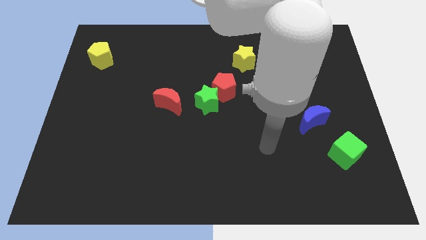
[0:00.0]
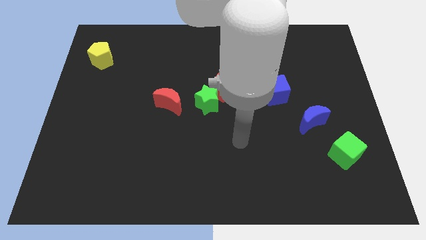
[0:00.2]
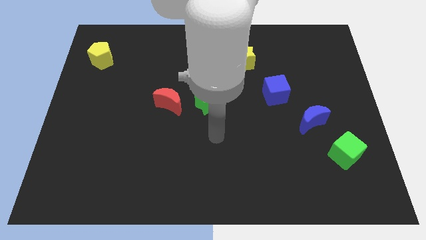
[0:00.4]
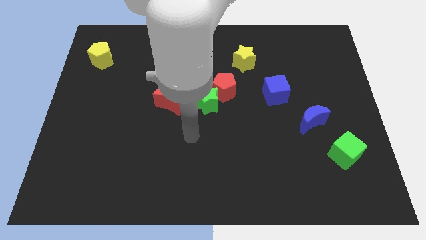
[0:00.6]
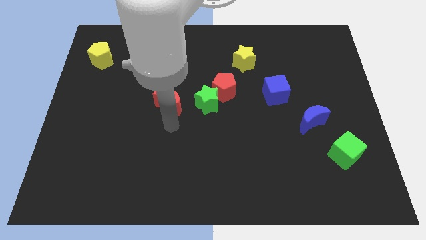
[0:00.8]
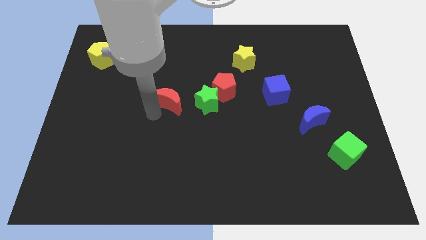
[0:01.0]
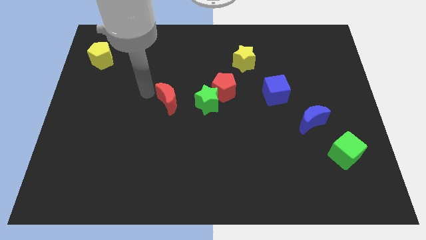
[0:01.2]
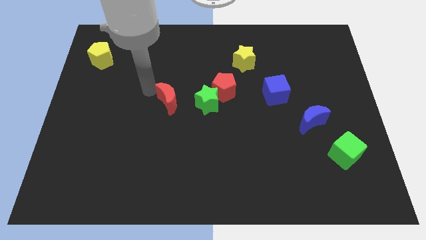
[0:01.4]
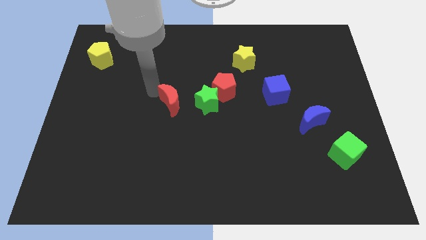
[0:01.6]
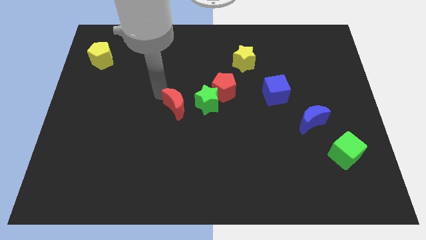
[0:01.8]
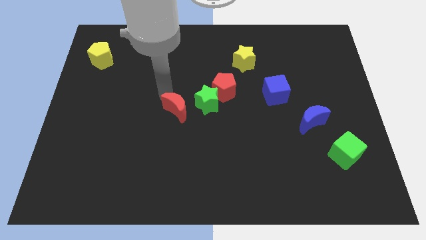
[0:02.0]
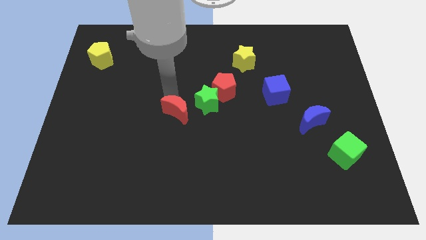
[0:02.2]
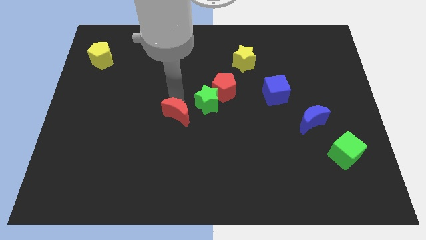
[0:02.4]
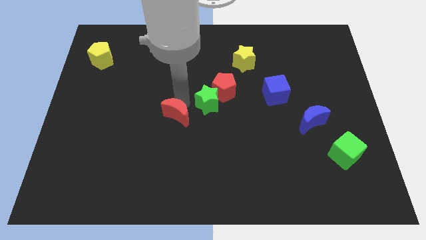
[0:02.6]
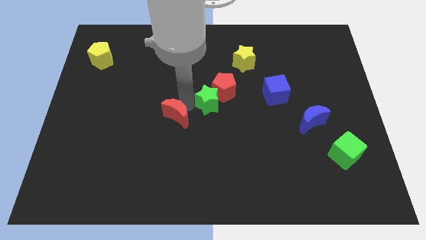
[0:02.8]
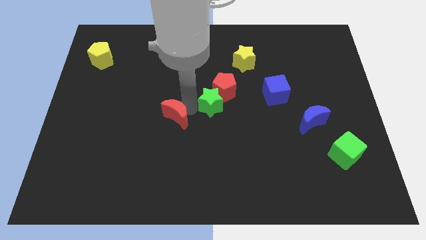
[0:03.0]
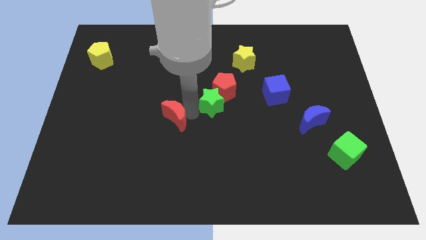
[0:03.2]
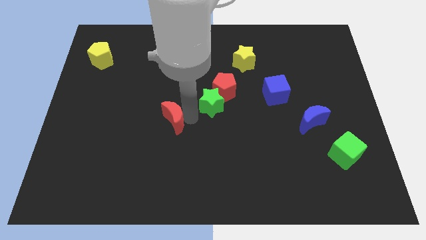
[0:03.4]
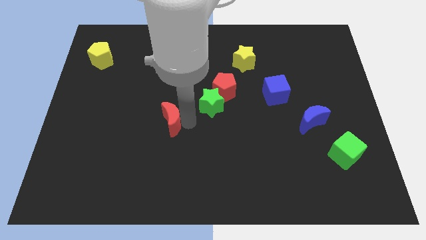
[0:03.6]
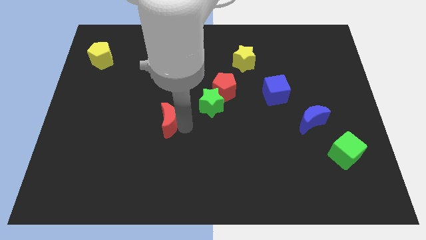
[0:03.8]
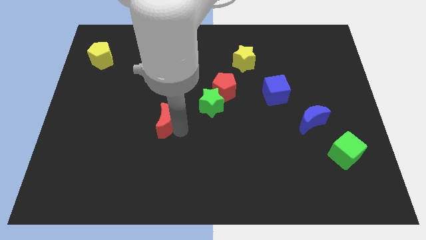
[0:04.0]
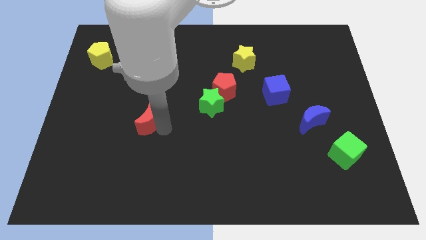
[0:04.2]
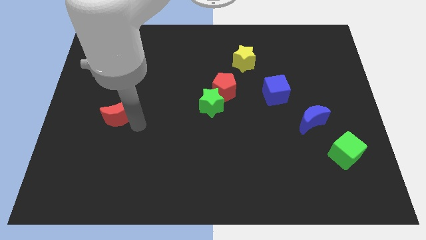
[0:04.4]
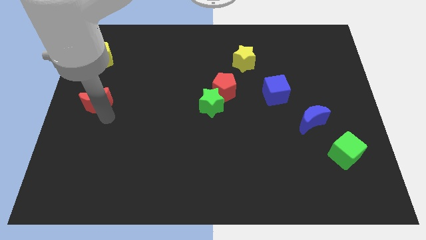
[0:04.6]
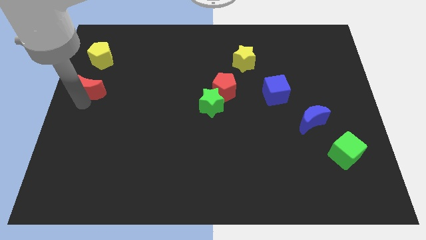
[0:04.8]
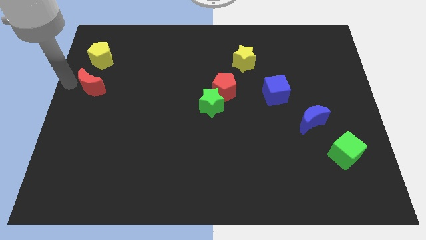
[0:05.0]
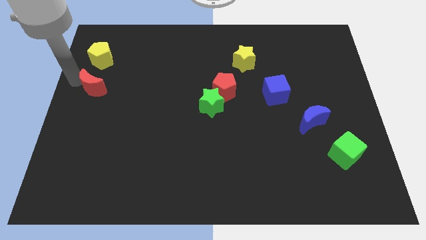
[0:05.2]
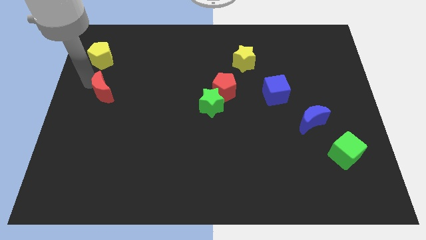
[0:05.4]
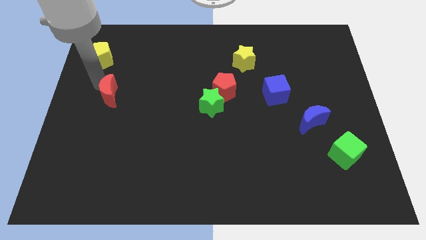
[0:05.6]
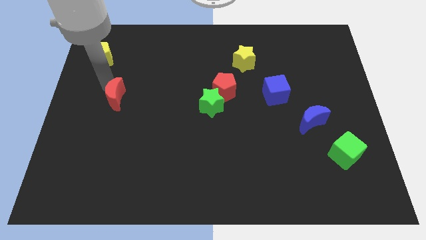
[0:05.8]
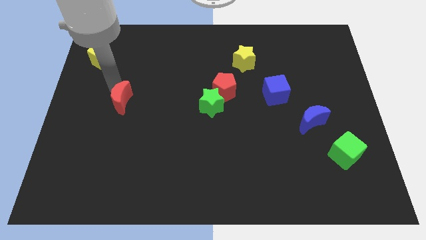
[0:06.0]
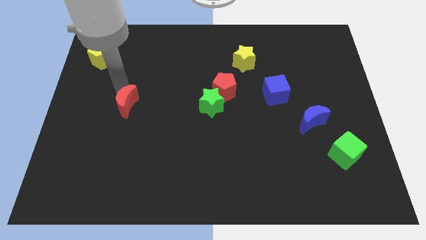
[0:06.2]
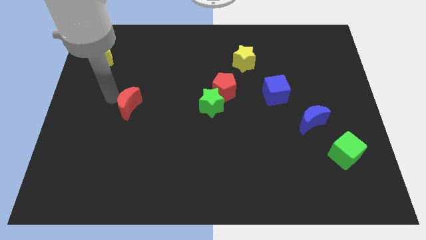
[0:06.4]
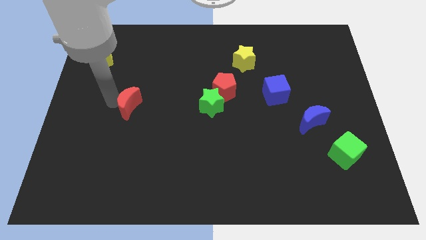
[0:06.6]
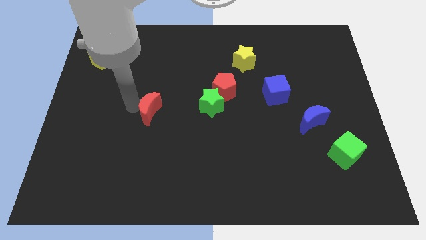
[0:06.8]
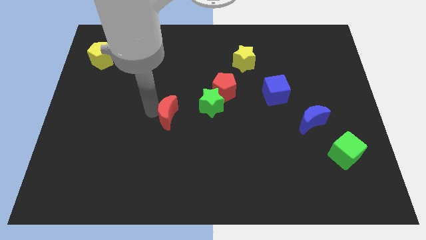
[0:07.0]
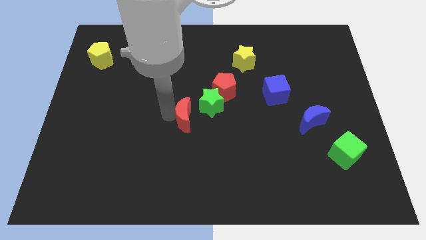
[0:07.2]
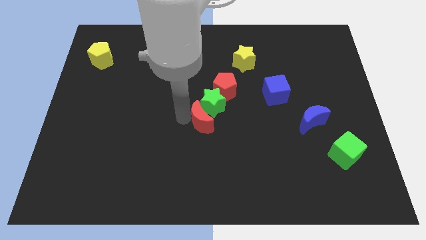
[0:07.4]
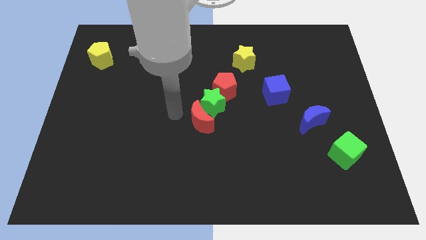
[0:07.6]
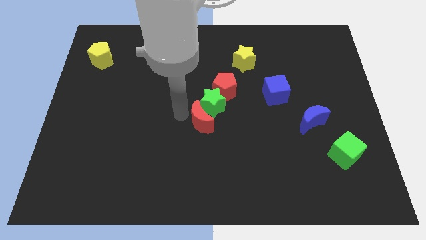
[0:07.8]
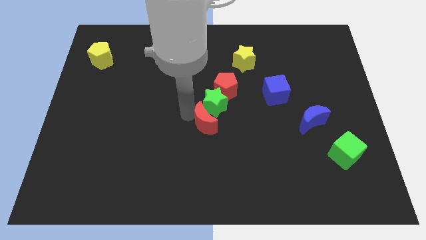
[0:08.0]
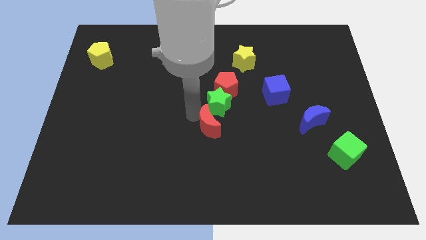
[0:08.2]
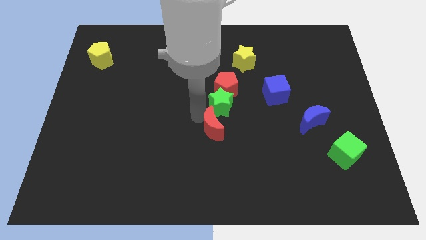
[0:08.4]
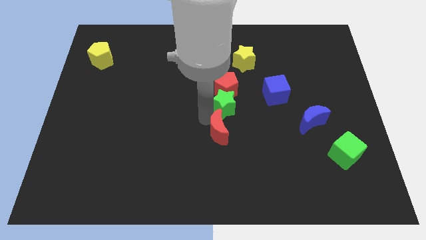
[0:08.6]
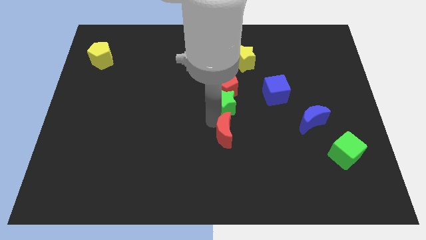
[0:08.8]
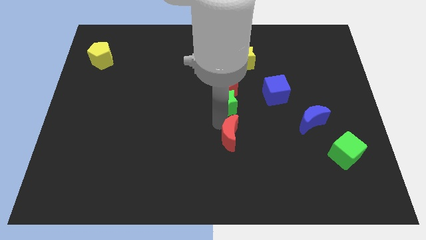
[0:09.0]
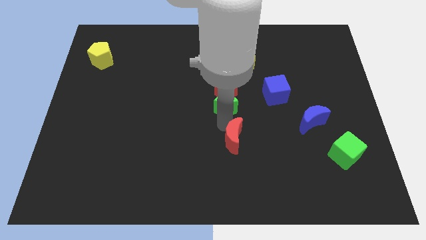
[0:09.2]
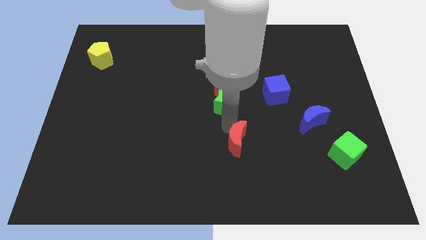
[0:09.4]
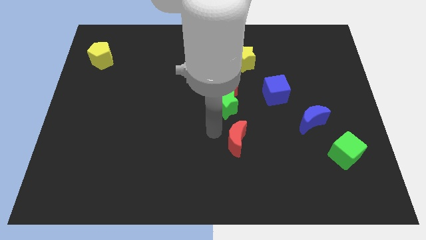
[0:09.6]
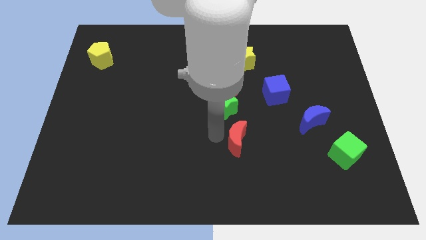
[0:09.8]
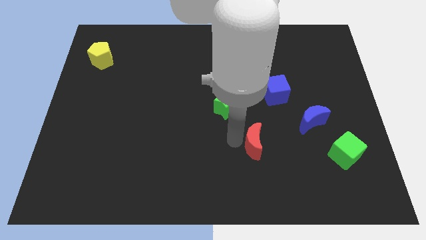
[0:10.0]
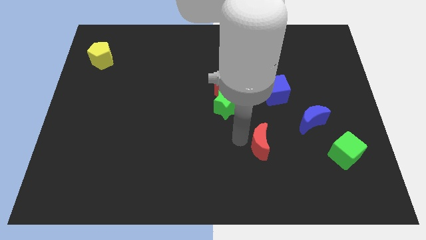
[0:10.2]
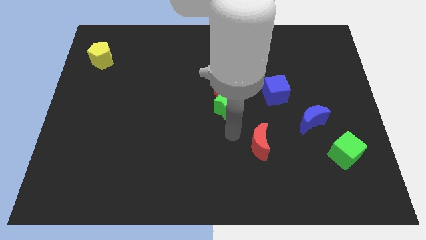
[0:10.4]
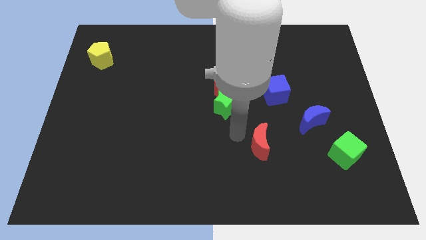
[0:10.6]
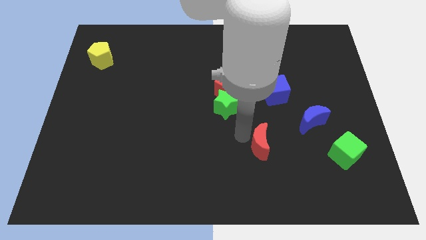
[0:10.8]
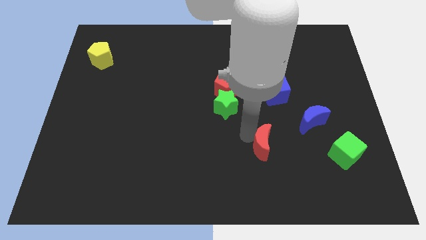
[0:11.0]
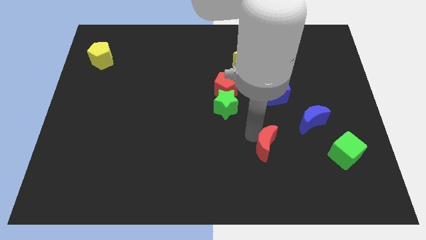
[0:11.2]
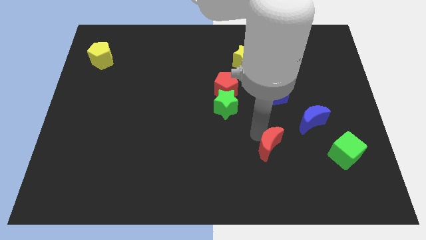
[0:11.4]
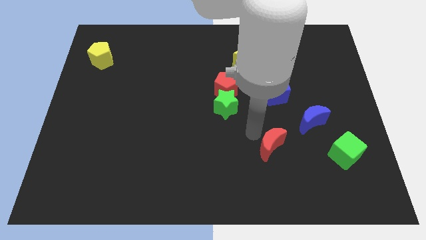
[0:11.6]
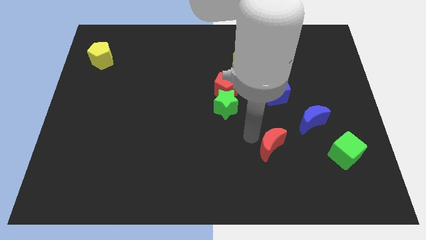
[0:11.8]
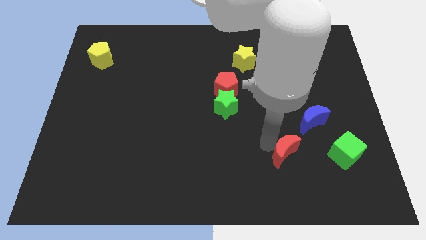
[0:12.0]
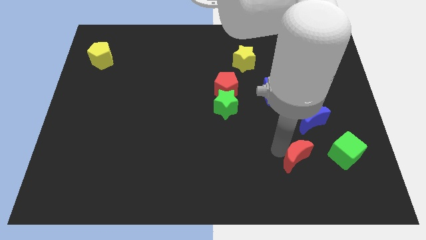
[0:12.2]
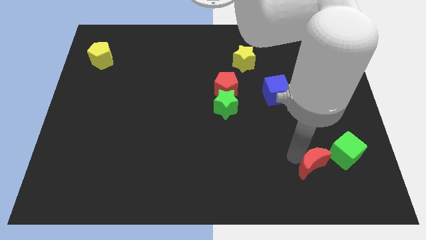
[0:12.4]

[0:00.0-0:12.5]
slide the red moon to the bottom left side of the green cube

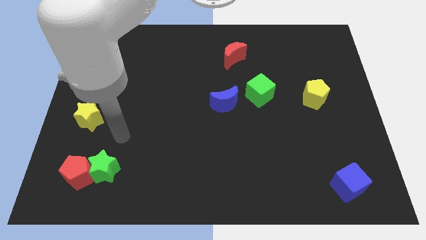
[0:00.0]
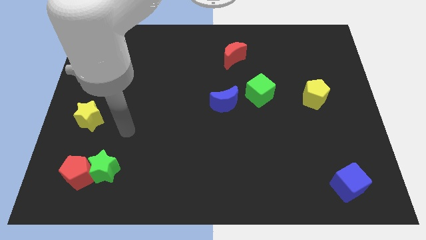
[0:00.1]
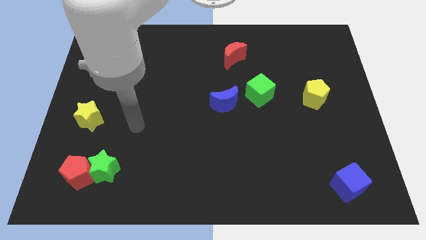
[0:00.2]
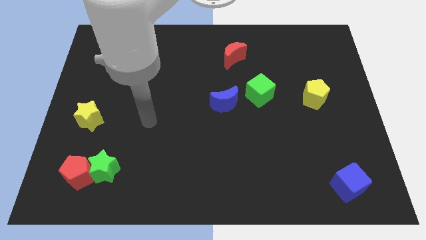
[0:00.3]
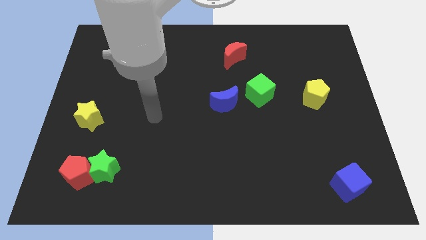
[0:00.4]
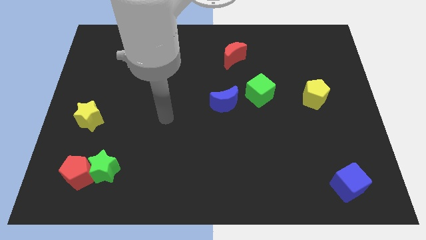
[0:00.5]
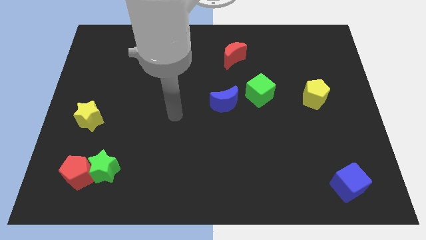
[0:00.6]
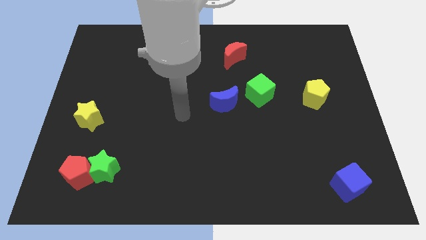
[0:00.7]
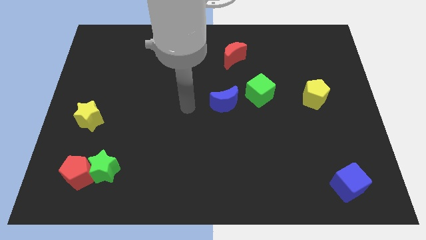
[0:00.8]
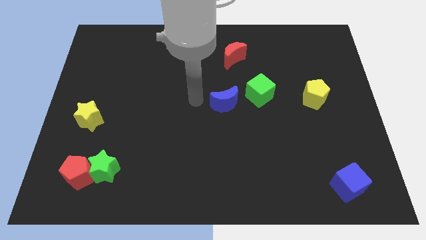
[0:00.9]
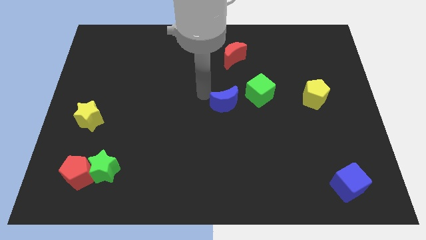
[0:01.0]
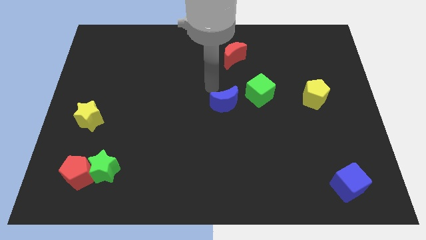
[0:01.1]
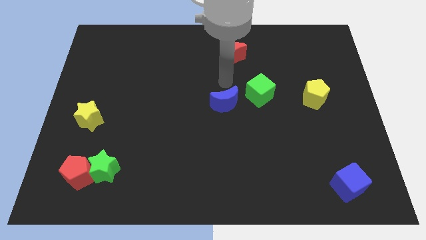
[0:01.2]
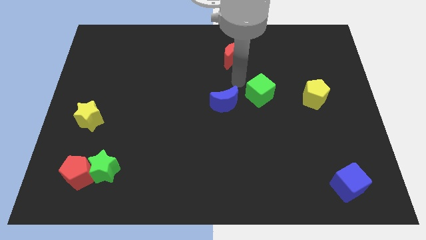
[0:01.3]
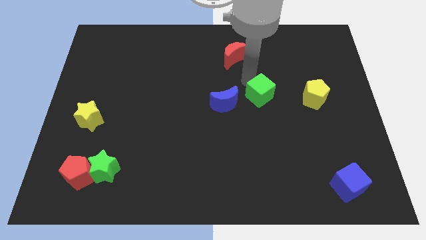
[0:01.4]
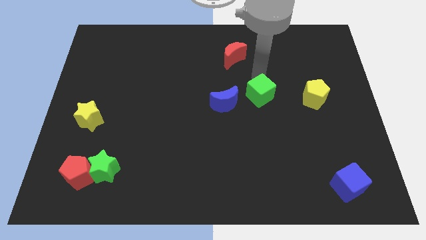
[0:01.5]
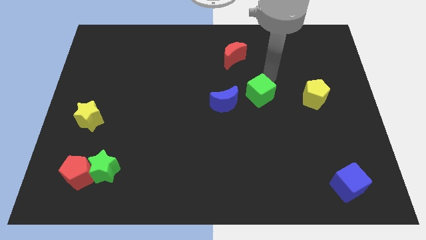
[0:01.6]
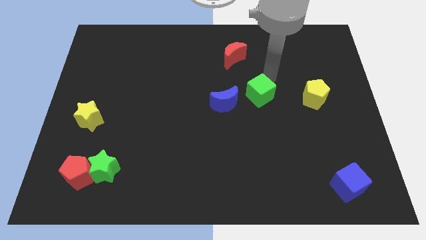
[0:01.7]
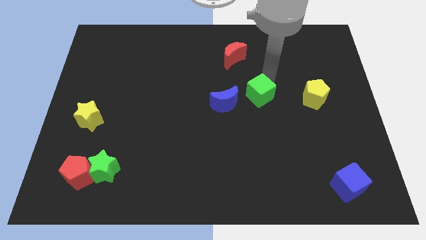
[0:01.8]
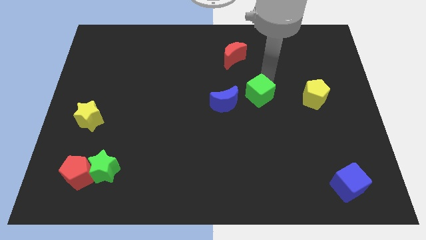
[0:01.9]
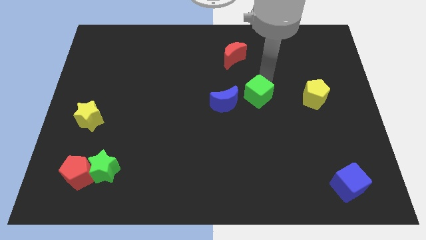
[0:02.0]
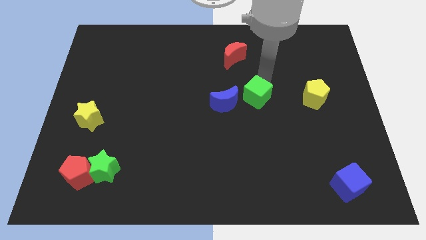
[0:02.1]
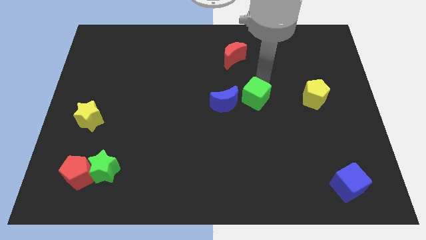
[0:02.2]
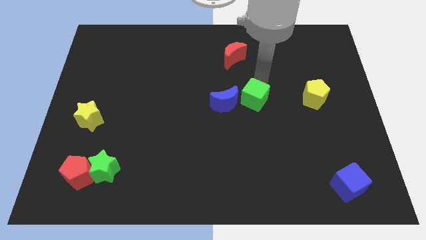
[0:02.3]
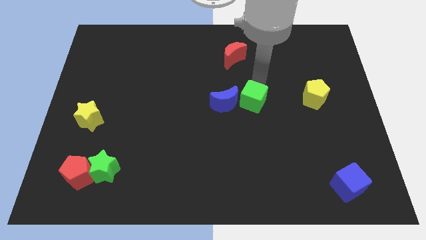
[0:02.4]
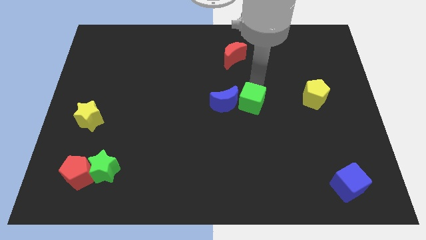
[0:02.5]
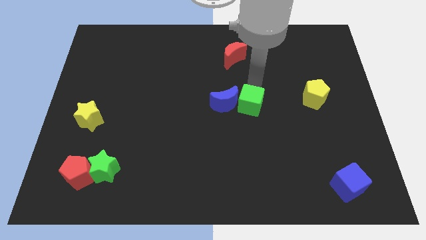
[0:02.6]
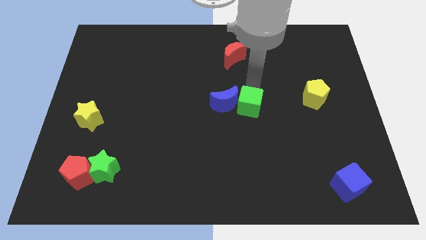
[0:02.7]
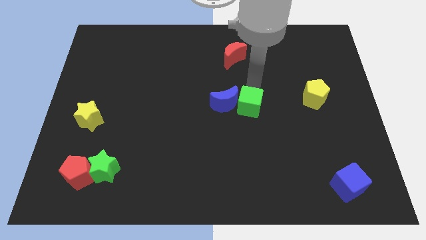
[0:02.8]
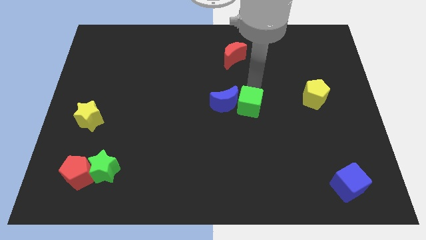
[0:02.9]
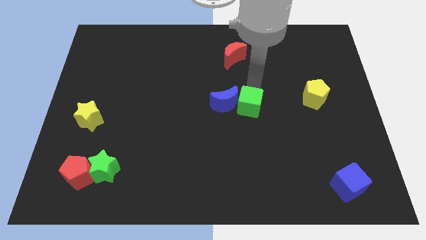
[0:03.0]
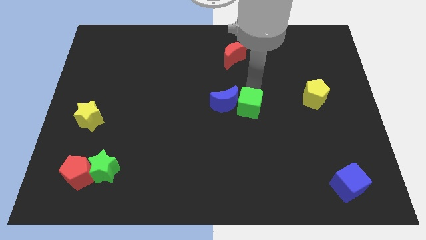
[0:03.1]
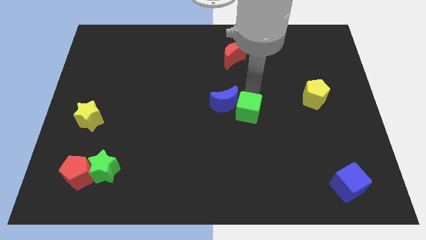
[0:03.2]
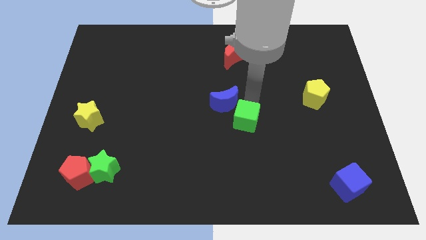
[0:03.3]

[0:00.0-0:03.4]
push the green cube to the bottom side of the blue moon
